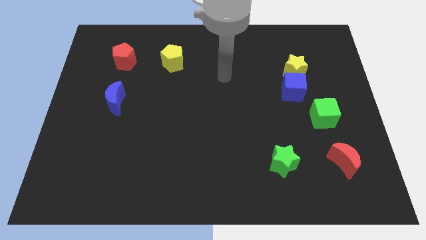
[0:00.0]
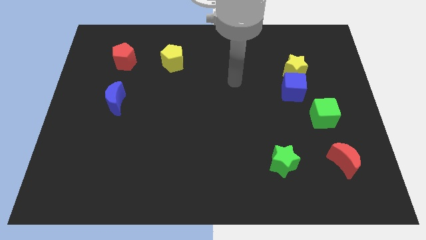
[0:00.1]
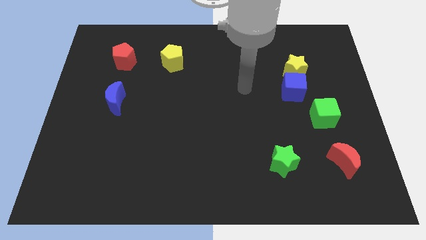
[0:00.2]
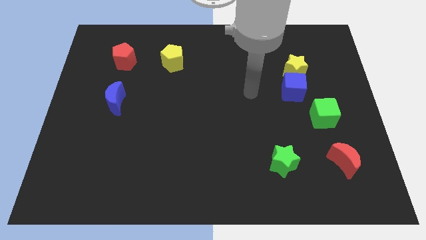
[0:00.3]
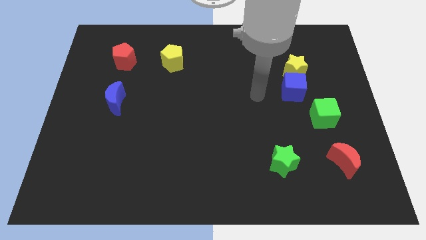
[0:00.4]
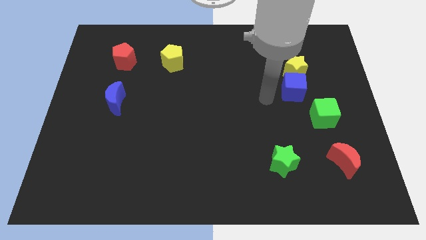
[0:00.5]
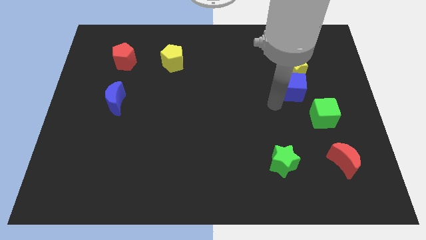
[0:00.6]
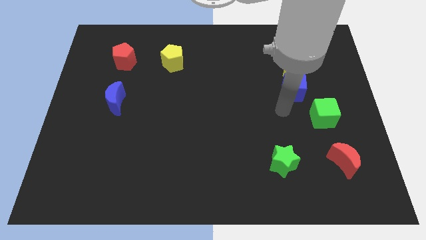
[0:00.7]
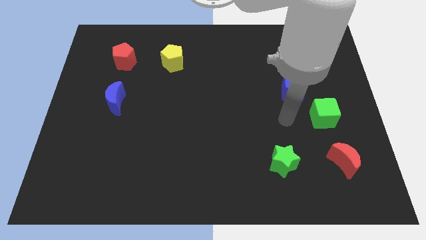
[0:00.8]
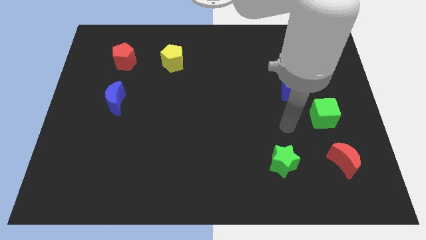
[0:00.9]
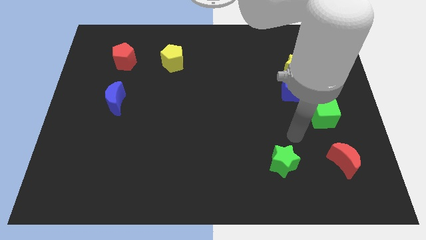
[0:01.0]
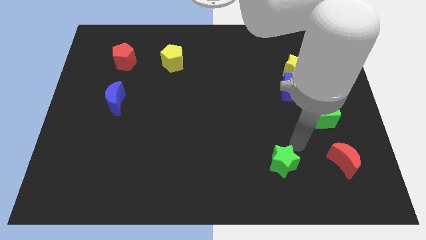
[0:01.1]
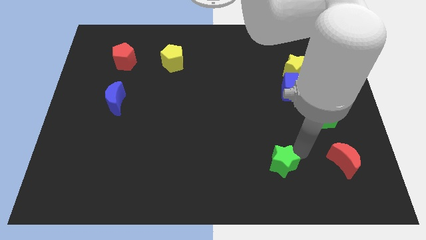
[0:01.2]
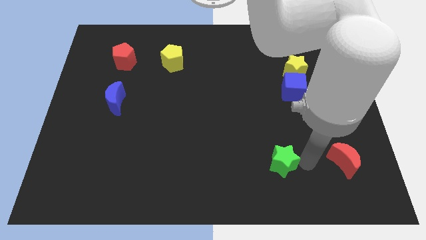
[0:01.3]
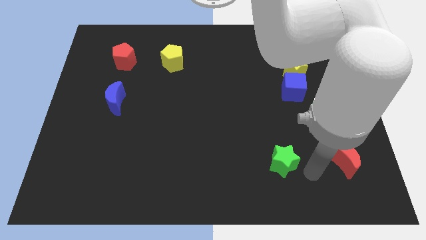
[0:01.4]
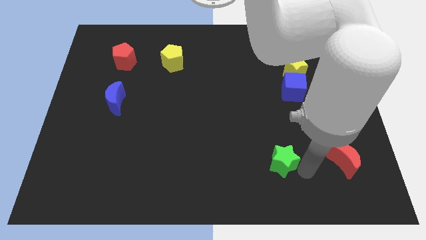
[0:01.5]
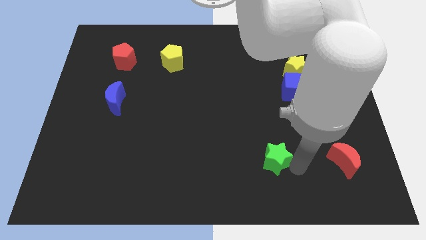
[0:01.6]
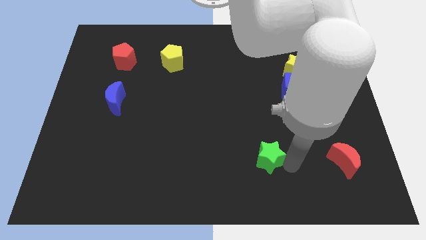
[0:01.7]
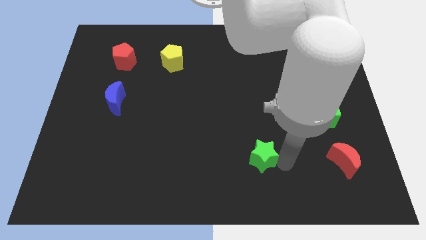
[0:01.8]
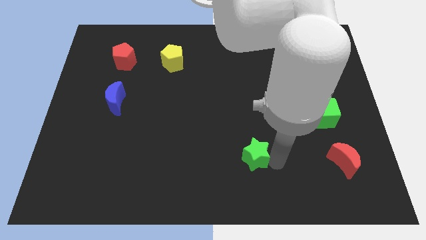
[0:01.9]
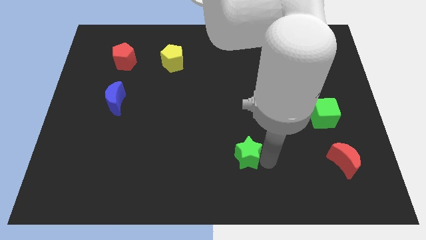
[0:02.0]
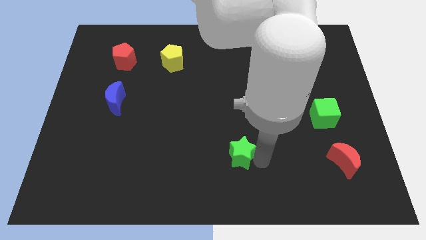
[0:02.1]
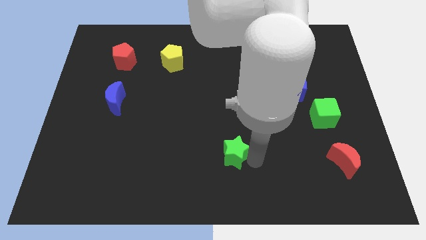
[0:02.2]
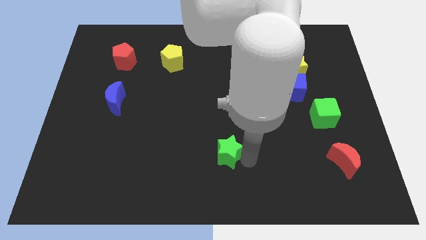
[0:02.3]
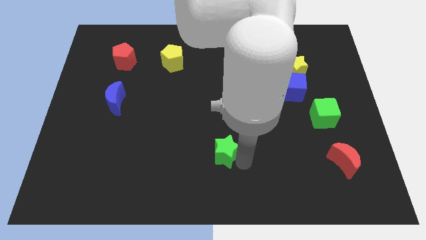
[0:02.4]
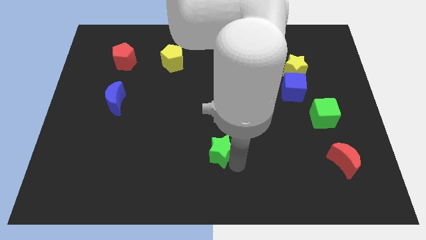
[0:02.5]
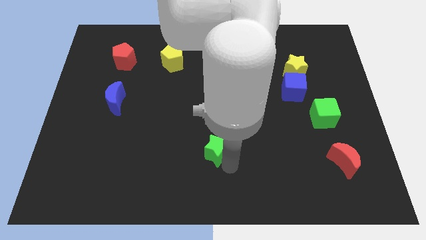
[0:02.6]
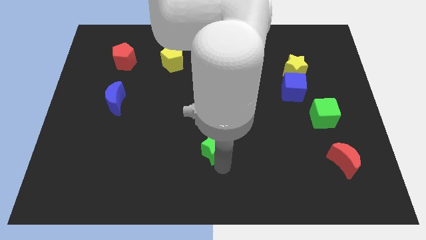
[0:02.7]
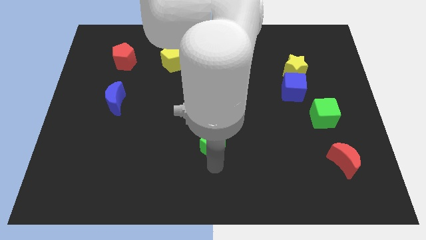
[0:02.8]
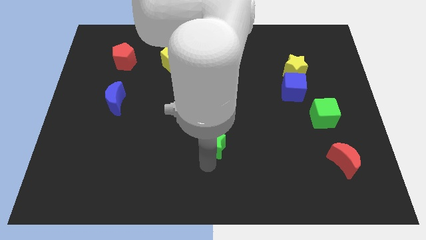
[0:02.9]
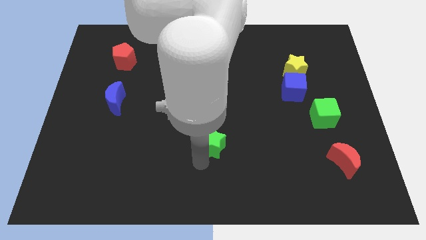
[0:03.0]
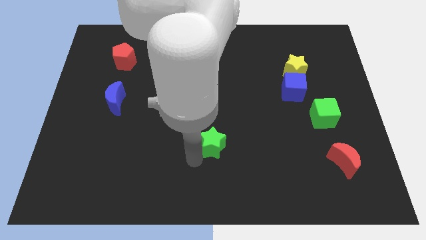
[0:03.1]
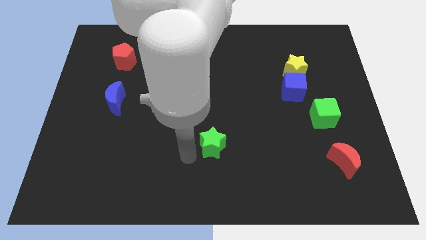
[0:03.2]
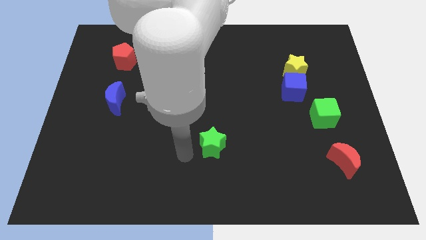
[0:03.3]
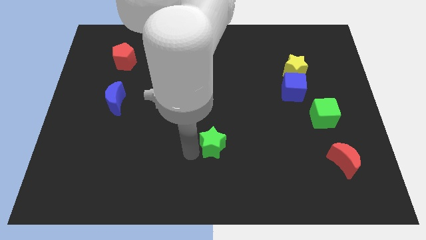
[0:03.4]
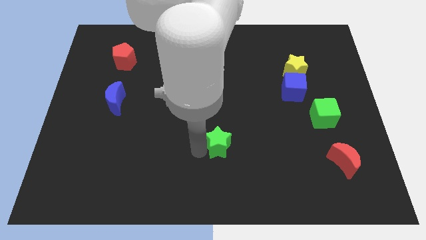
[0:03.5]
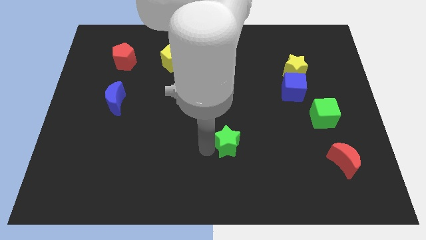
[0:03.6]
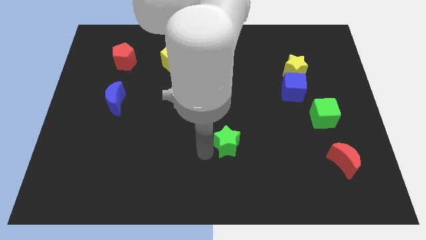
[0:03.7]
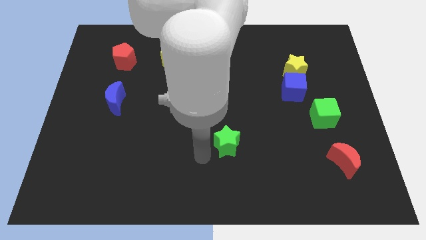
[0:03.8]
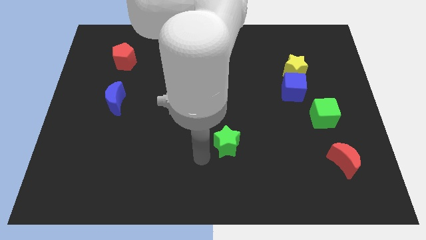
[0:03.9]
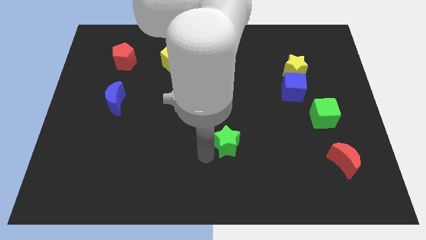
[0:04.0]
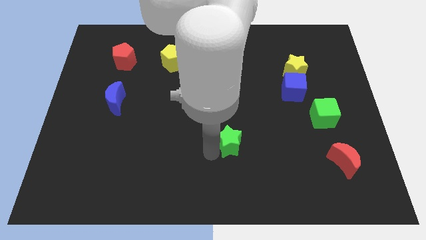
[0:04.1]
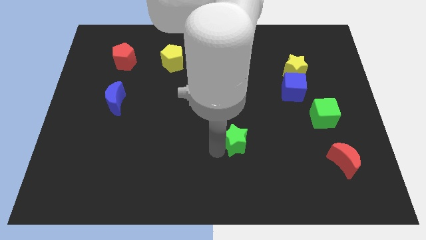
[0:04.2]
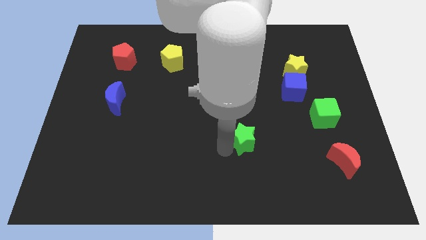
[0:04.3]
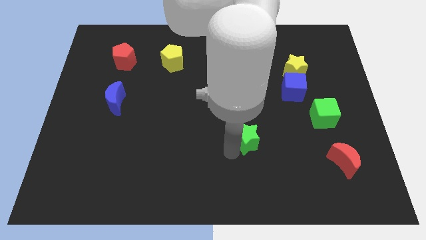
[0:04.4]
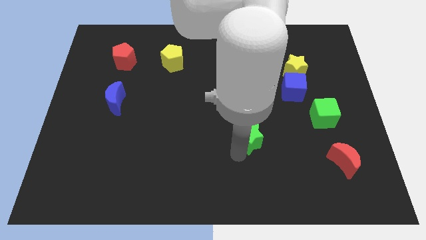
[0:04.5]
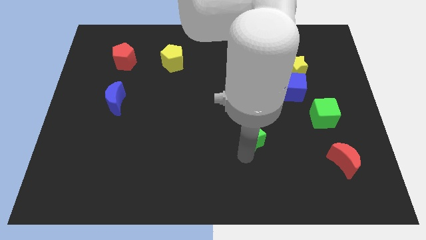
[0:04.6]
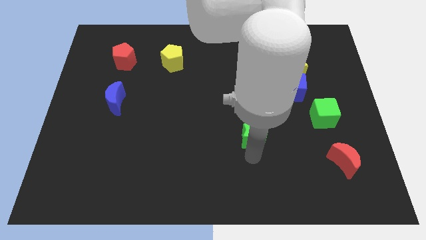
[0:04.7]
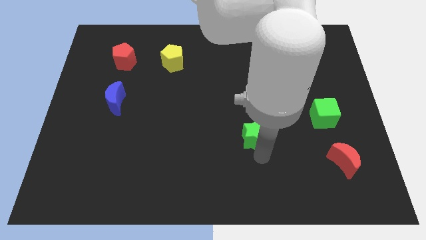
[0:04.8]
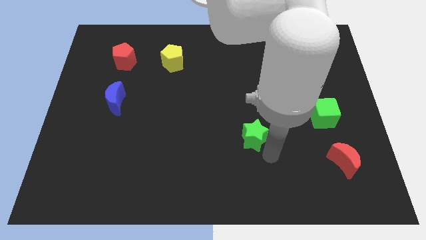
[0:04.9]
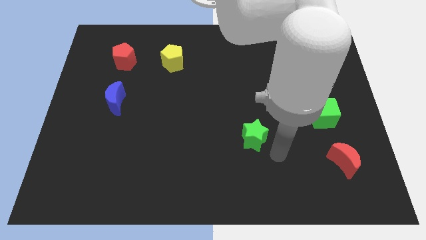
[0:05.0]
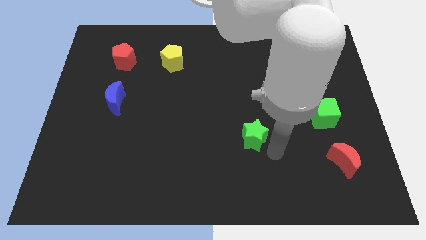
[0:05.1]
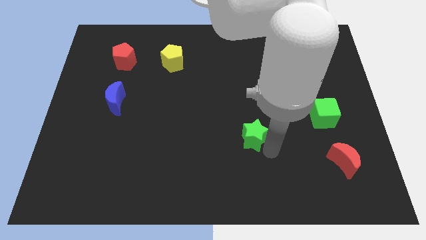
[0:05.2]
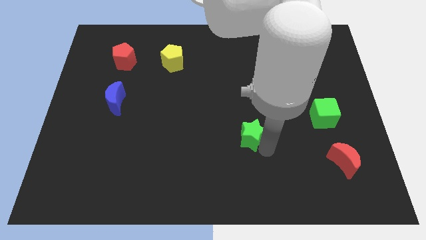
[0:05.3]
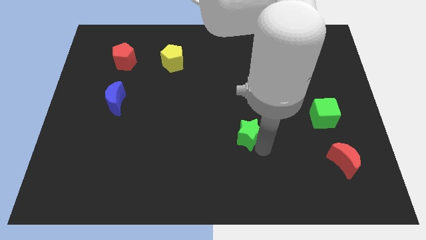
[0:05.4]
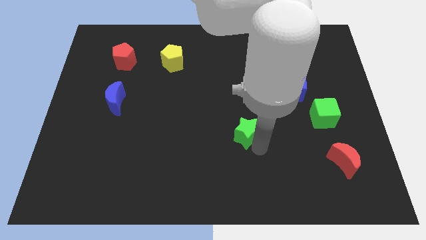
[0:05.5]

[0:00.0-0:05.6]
push the green star to the middle of the board
